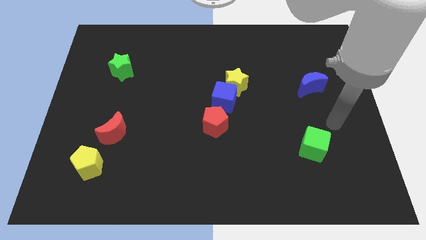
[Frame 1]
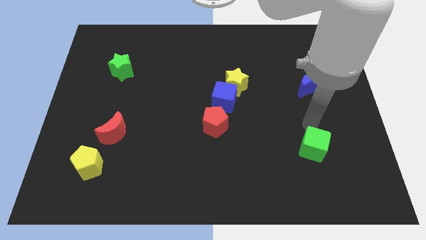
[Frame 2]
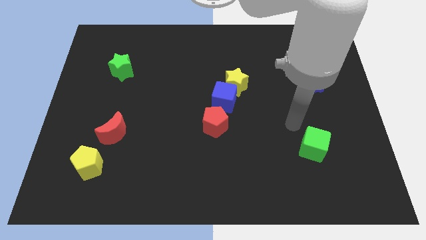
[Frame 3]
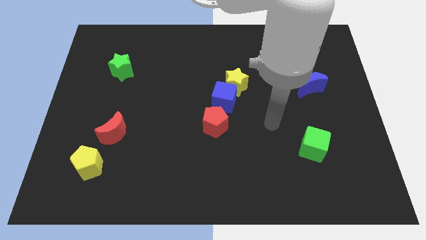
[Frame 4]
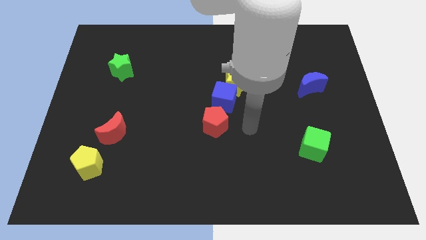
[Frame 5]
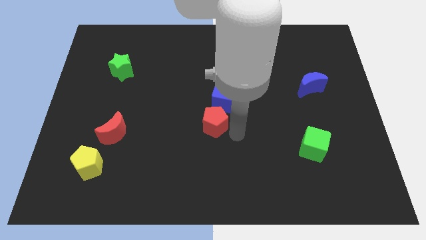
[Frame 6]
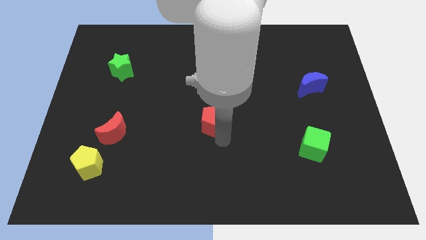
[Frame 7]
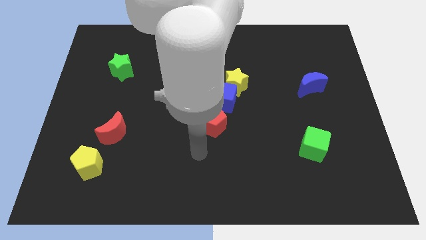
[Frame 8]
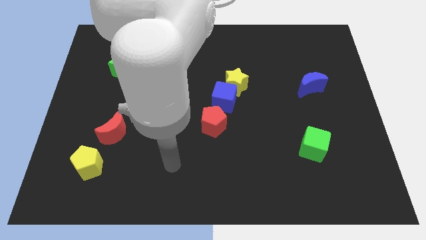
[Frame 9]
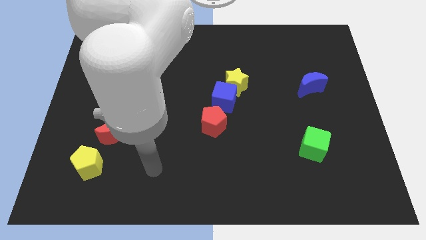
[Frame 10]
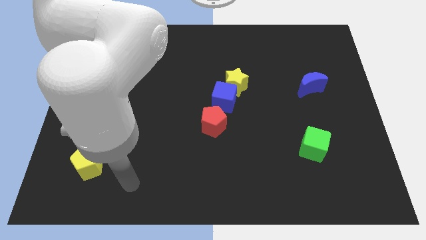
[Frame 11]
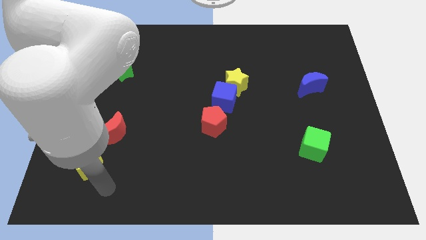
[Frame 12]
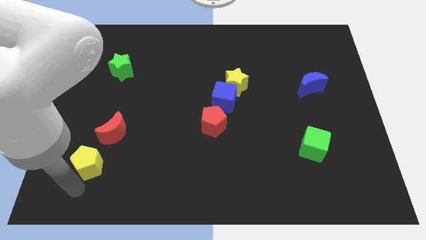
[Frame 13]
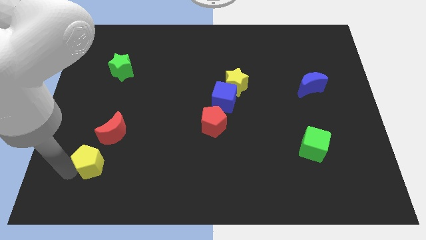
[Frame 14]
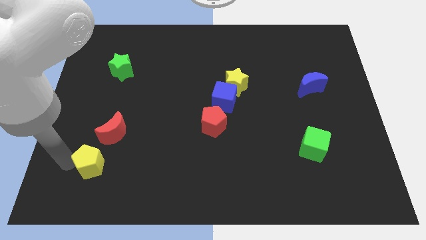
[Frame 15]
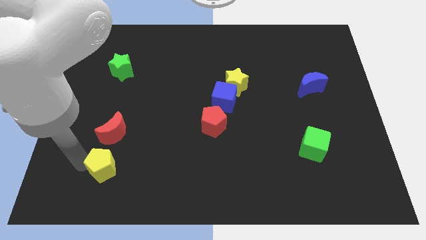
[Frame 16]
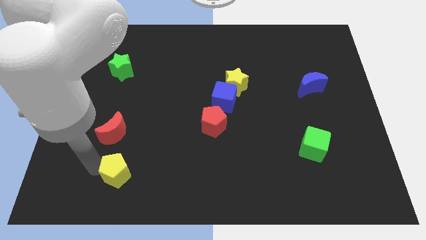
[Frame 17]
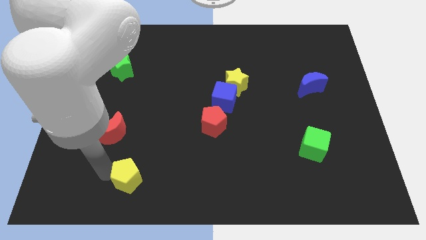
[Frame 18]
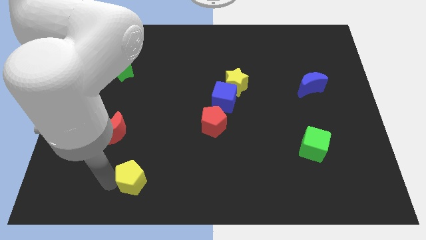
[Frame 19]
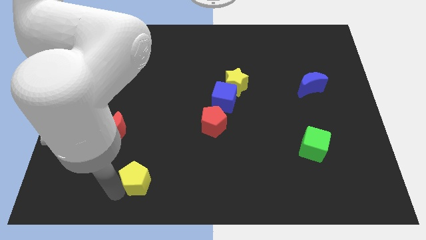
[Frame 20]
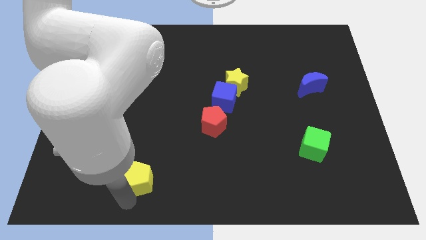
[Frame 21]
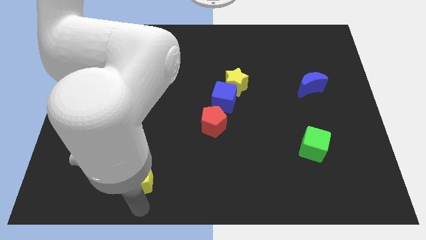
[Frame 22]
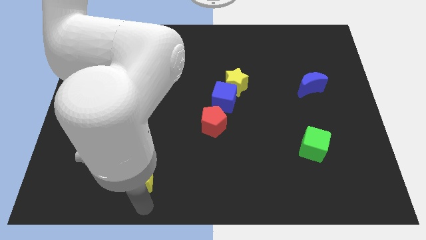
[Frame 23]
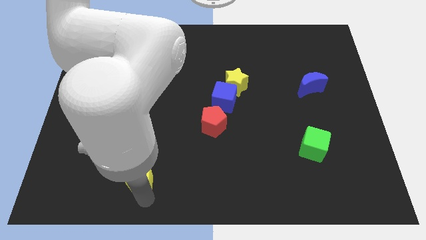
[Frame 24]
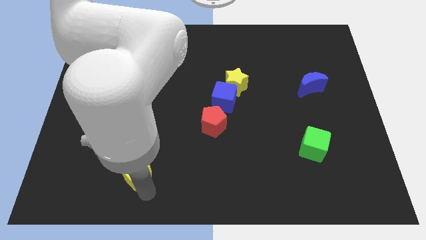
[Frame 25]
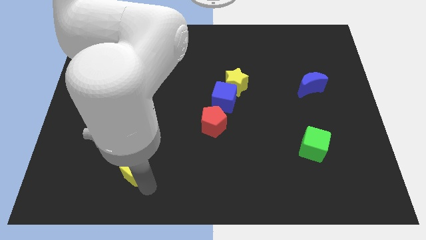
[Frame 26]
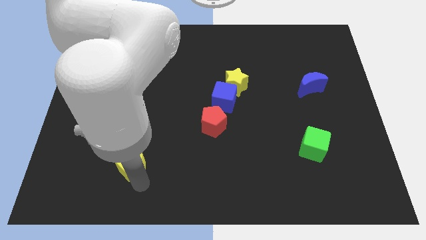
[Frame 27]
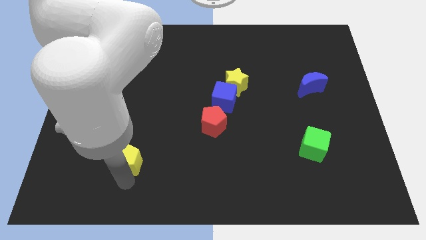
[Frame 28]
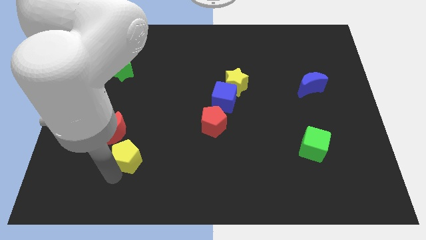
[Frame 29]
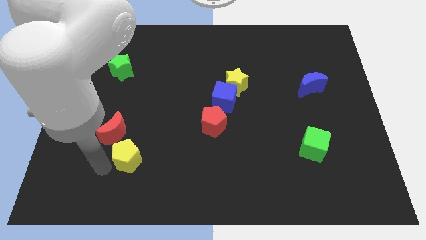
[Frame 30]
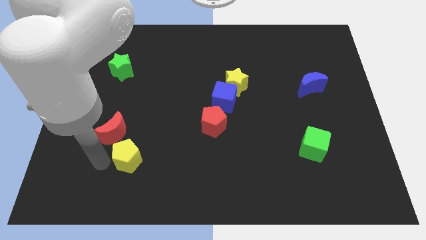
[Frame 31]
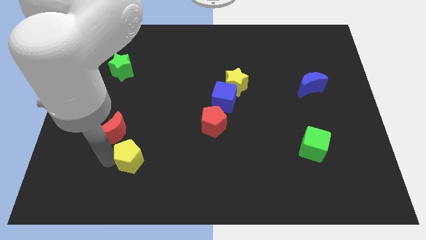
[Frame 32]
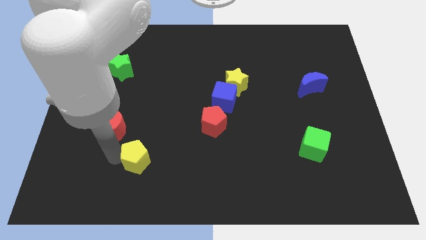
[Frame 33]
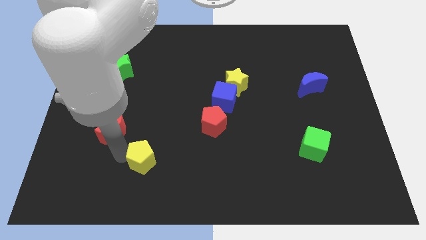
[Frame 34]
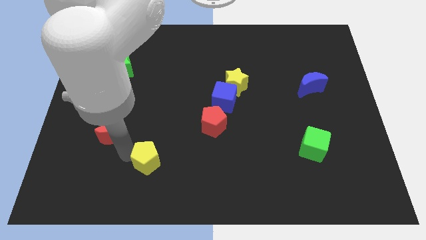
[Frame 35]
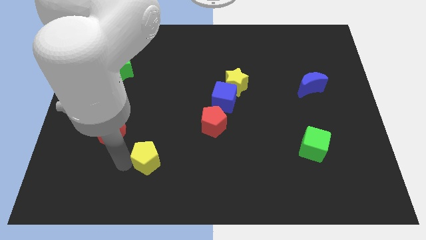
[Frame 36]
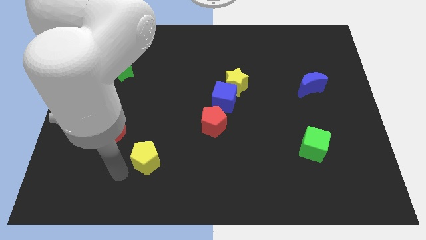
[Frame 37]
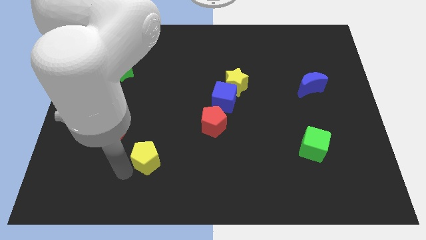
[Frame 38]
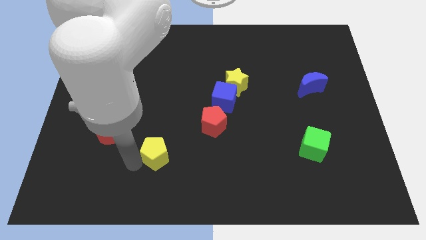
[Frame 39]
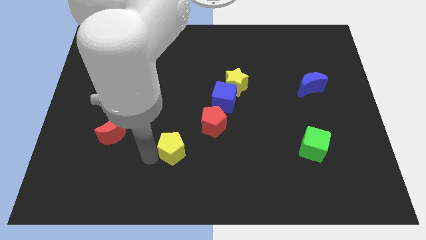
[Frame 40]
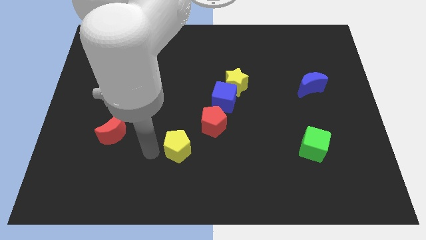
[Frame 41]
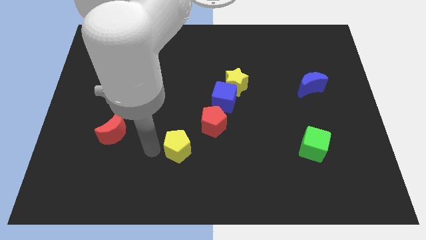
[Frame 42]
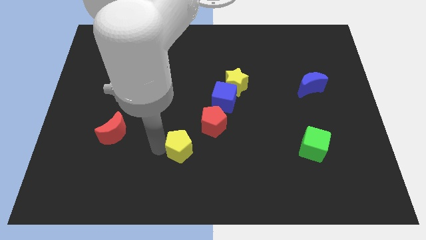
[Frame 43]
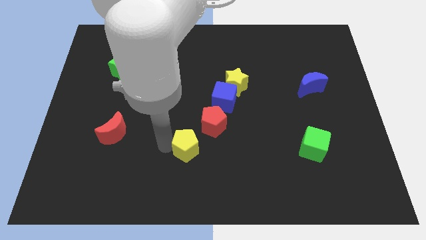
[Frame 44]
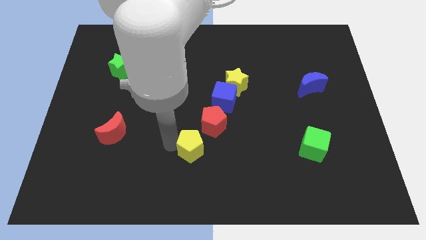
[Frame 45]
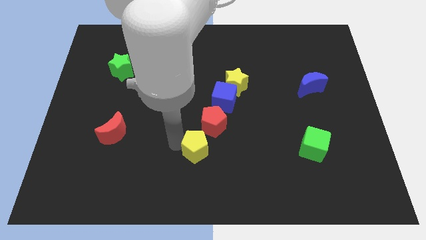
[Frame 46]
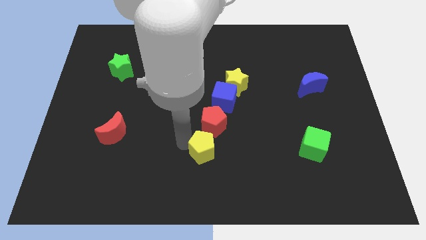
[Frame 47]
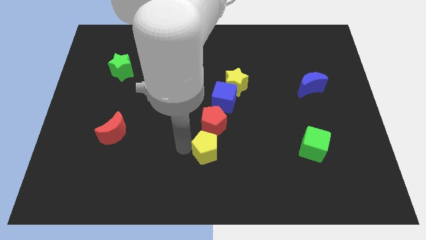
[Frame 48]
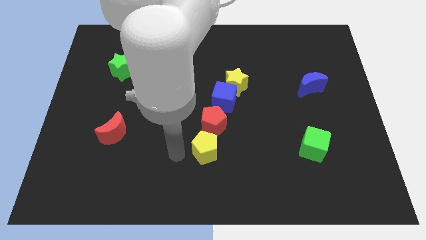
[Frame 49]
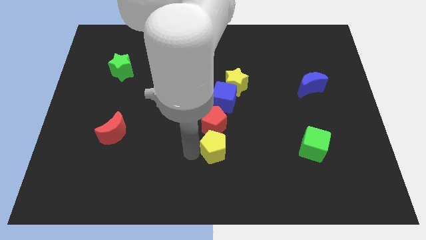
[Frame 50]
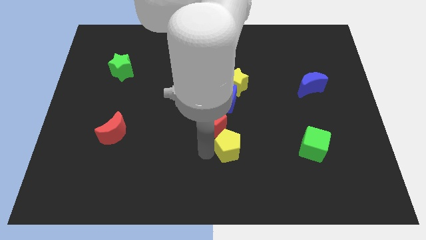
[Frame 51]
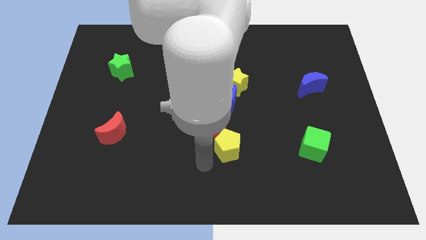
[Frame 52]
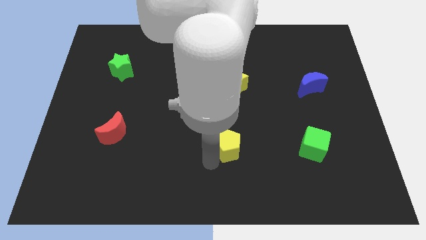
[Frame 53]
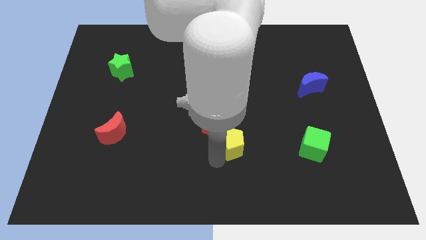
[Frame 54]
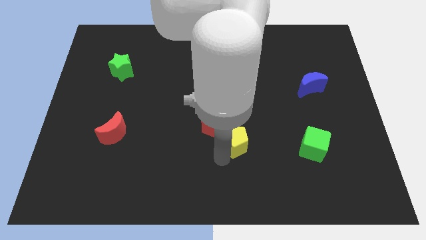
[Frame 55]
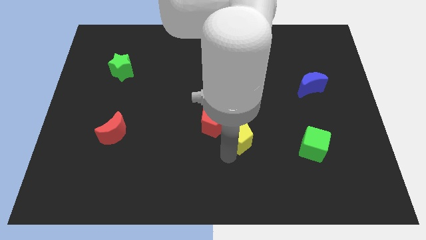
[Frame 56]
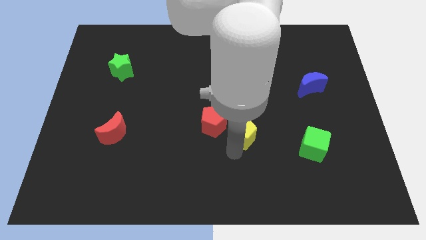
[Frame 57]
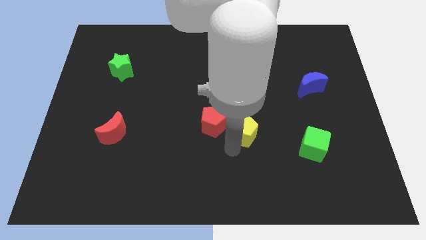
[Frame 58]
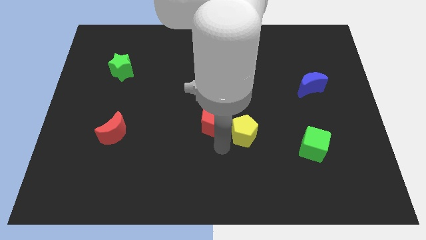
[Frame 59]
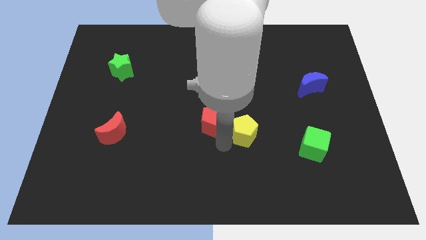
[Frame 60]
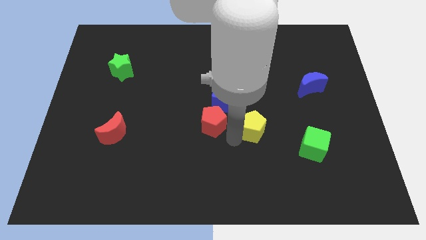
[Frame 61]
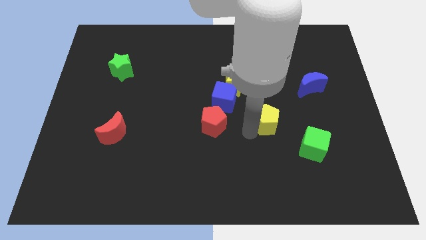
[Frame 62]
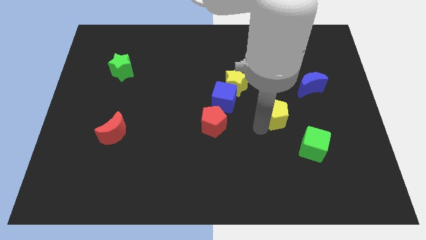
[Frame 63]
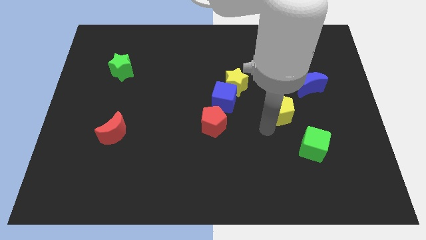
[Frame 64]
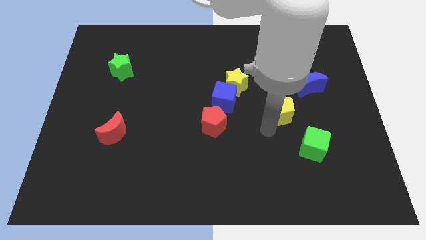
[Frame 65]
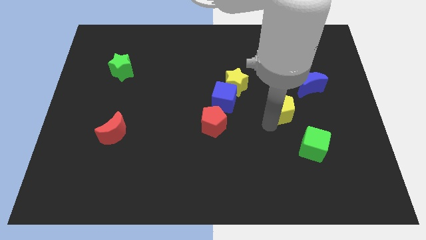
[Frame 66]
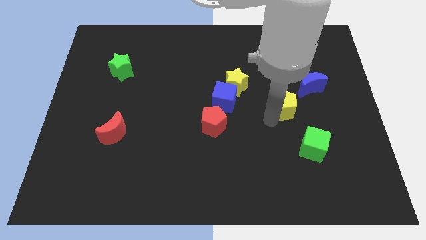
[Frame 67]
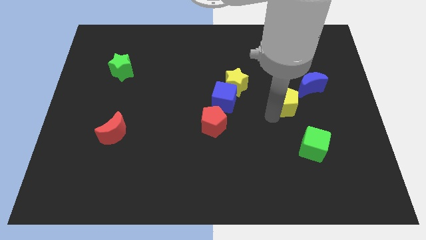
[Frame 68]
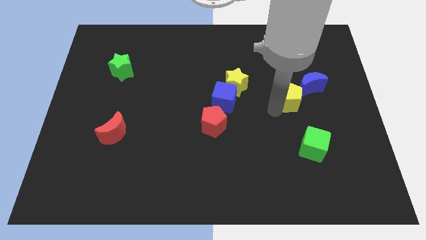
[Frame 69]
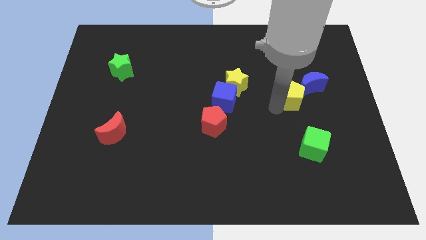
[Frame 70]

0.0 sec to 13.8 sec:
move the yellow pentagon to the blue moon

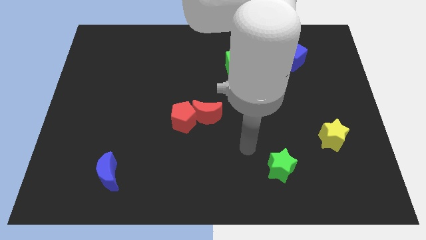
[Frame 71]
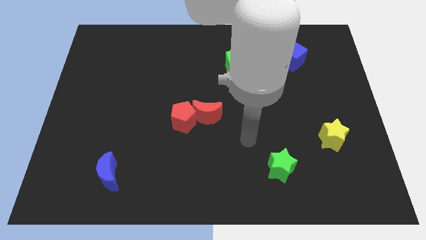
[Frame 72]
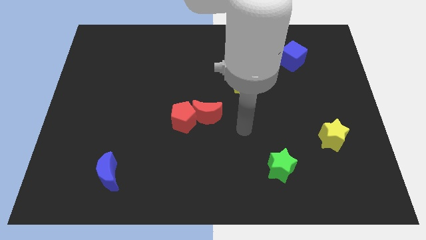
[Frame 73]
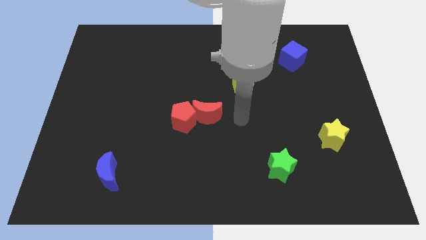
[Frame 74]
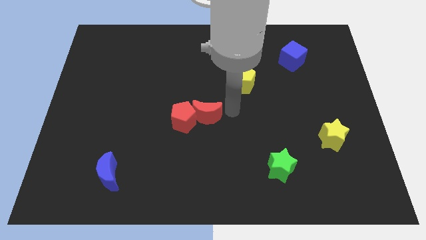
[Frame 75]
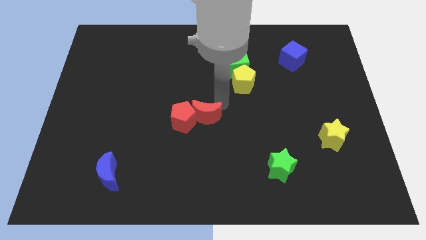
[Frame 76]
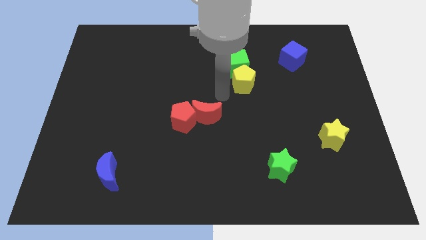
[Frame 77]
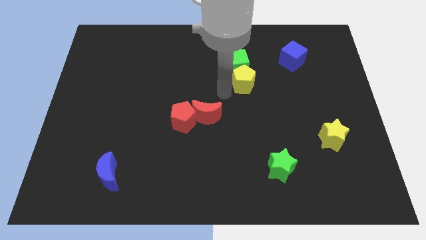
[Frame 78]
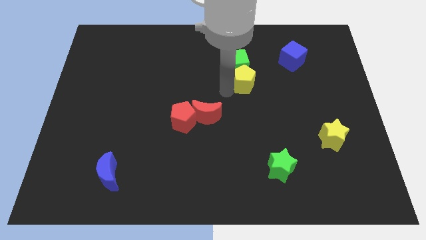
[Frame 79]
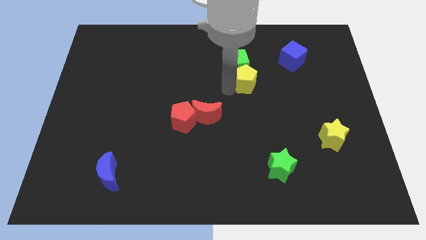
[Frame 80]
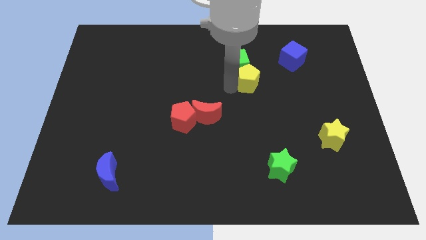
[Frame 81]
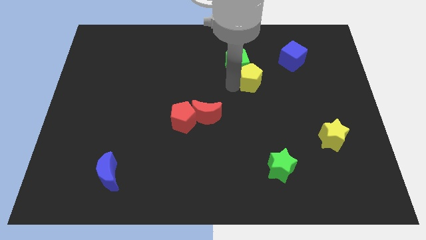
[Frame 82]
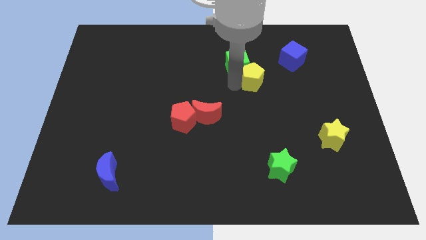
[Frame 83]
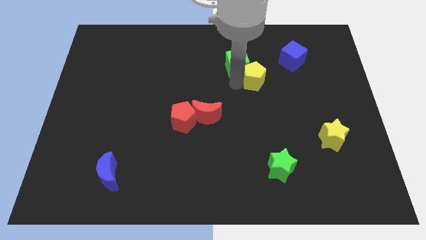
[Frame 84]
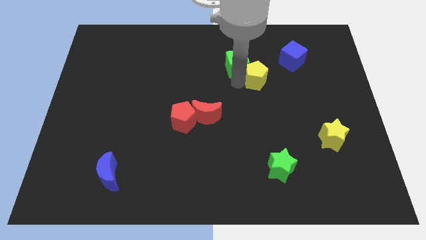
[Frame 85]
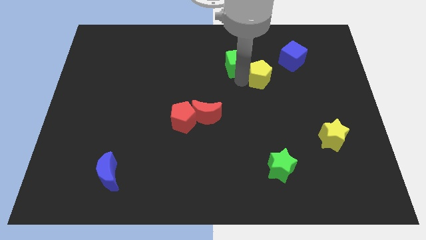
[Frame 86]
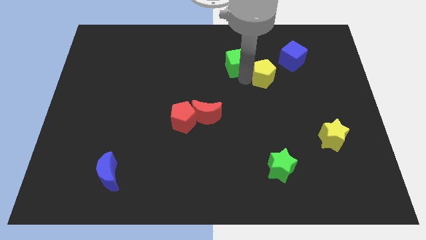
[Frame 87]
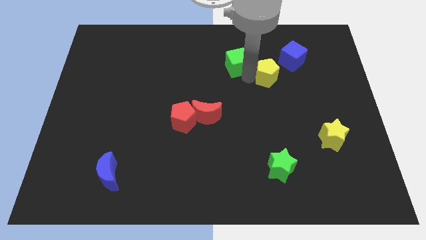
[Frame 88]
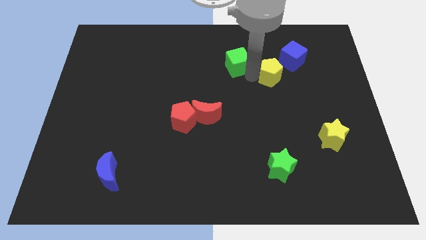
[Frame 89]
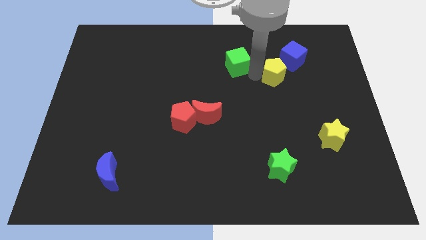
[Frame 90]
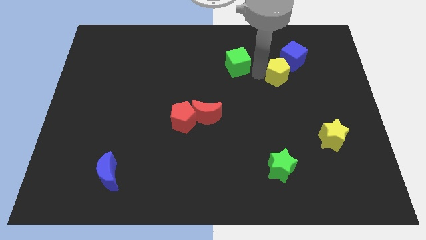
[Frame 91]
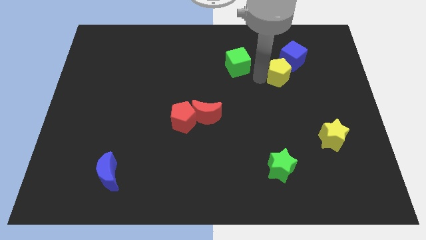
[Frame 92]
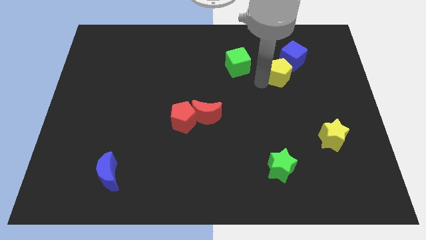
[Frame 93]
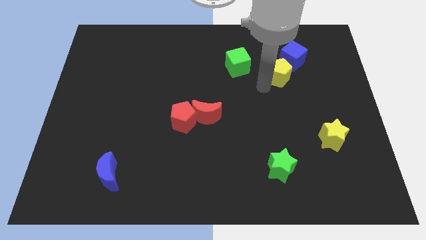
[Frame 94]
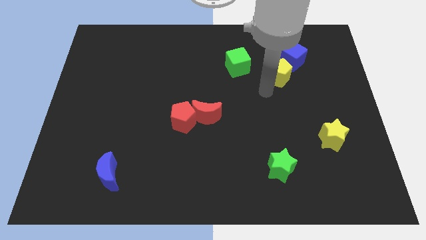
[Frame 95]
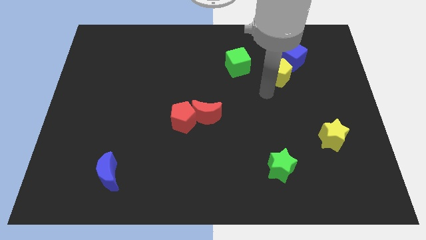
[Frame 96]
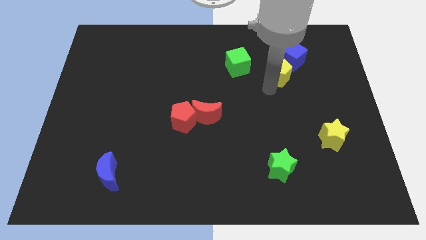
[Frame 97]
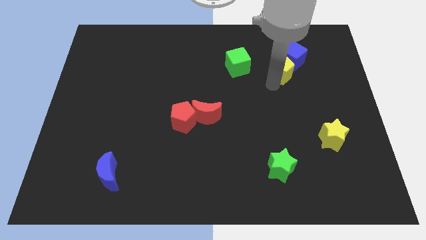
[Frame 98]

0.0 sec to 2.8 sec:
move the yellow pentagon next to the blue cube
